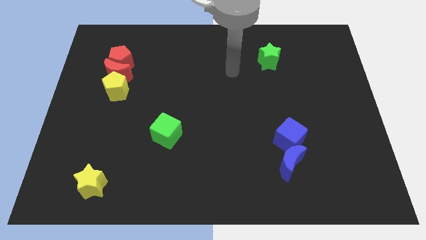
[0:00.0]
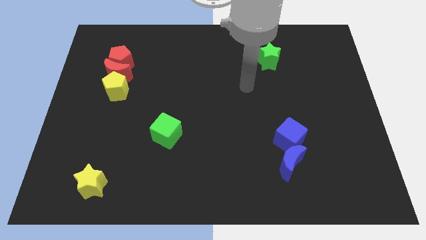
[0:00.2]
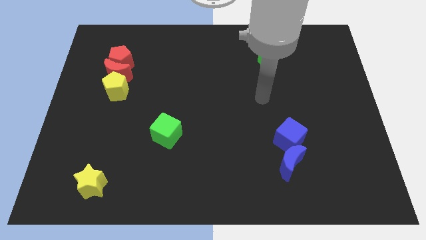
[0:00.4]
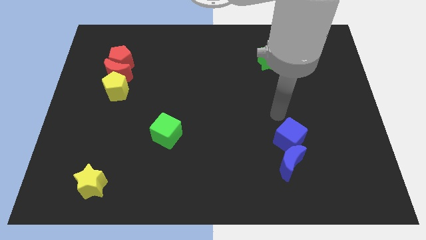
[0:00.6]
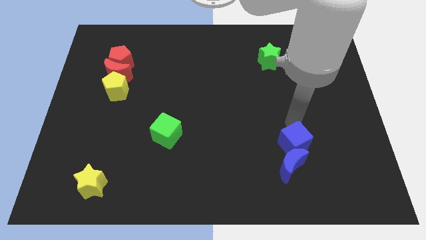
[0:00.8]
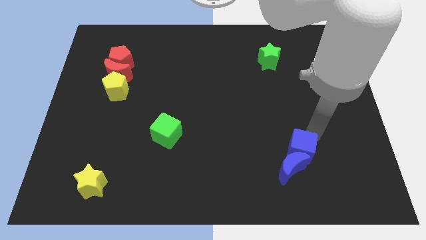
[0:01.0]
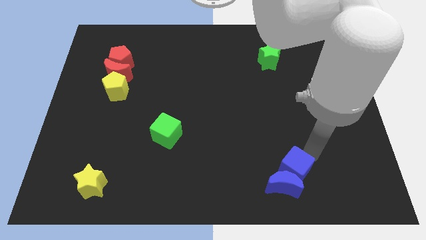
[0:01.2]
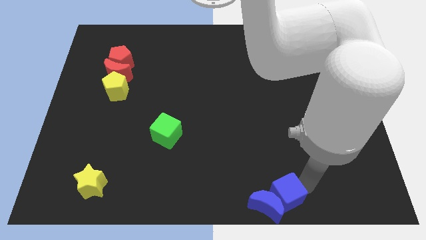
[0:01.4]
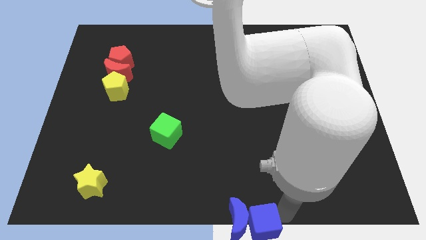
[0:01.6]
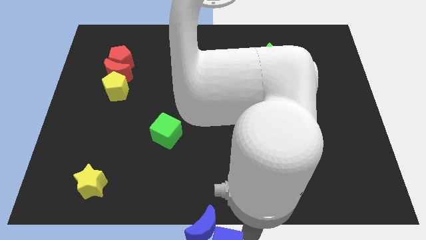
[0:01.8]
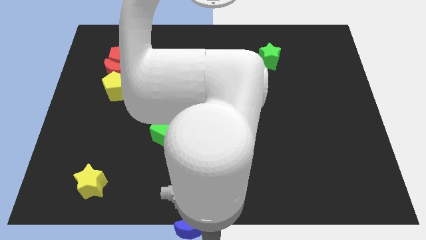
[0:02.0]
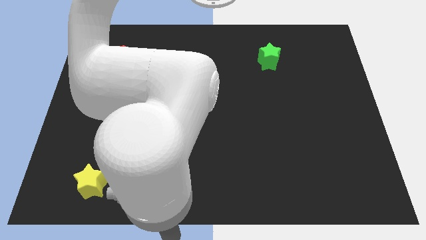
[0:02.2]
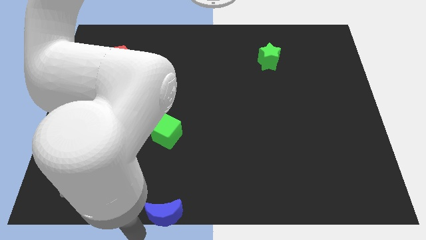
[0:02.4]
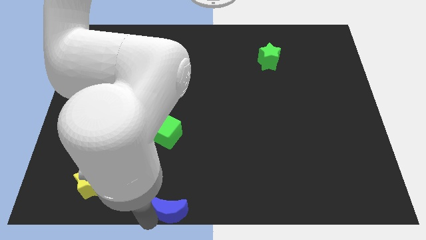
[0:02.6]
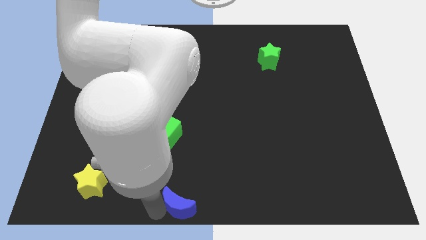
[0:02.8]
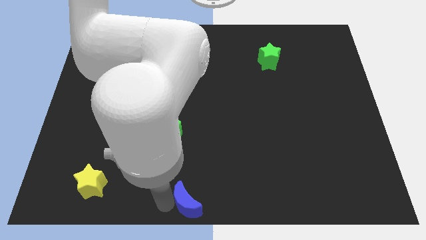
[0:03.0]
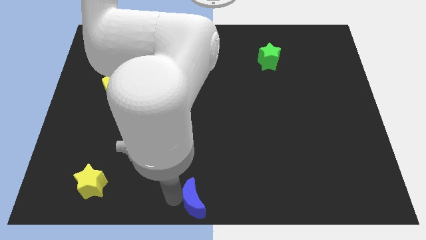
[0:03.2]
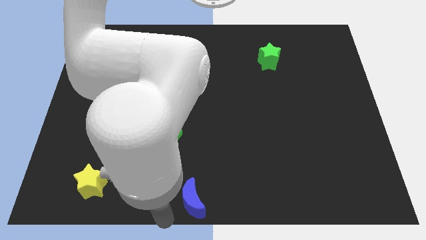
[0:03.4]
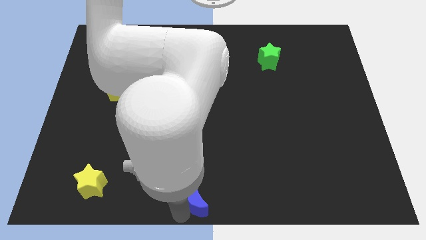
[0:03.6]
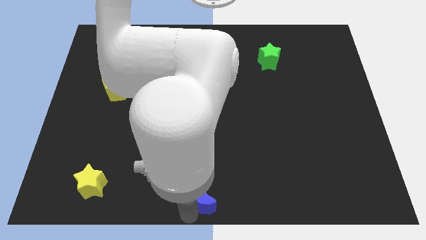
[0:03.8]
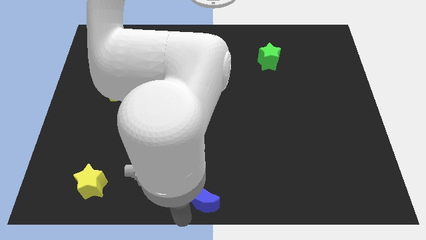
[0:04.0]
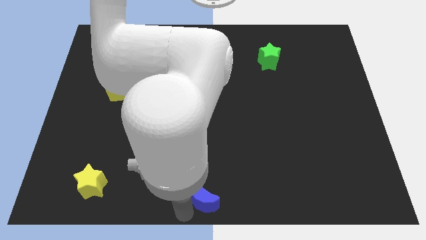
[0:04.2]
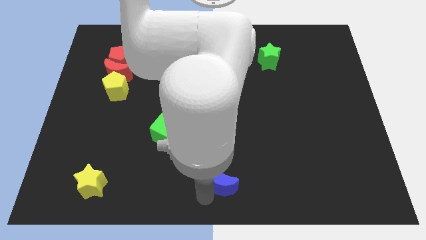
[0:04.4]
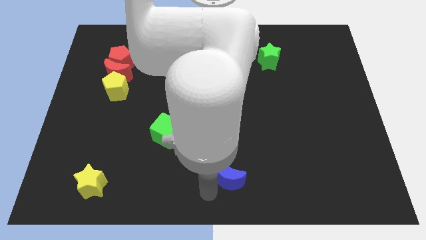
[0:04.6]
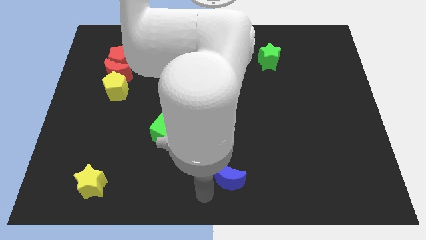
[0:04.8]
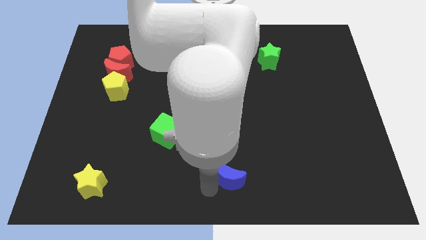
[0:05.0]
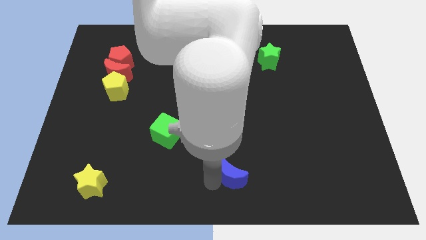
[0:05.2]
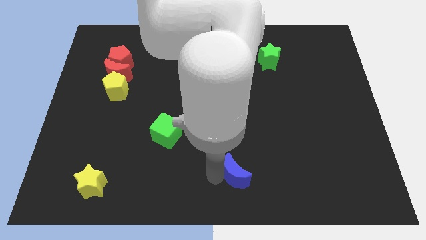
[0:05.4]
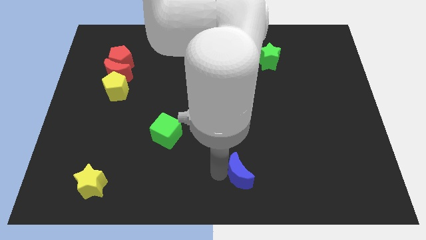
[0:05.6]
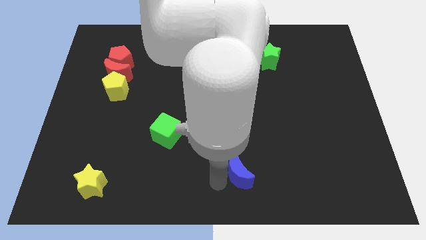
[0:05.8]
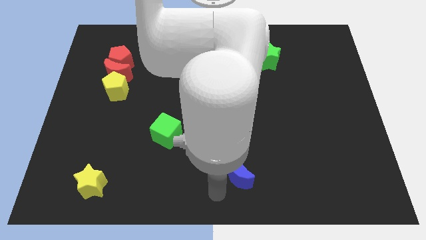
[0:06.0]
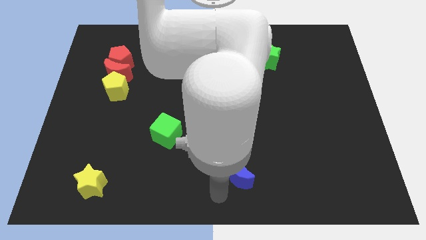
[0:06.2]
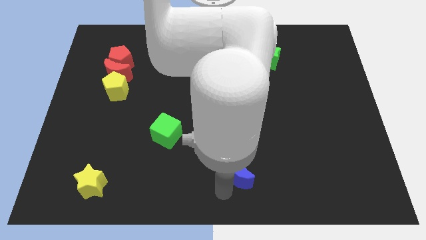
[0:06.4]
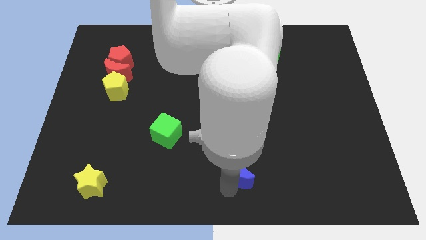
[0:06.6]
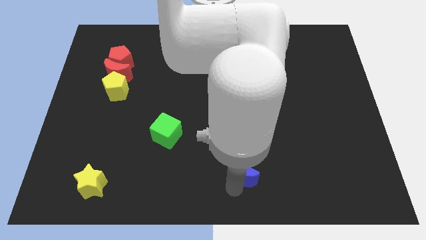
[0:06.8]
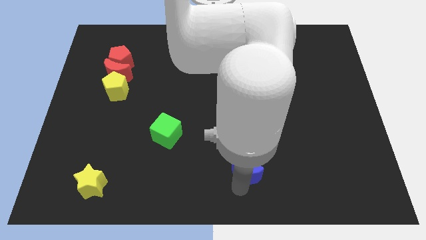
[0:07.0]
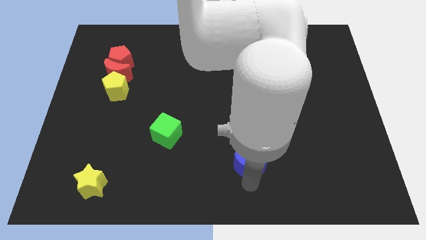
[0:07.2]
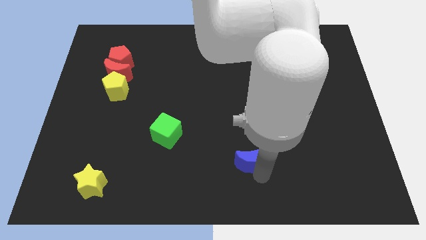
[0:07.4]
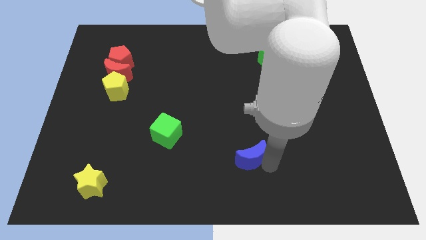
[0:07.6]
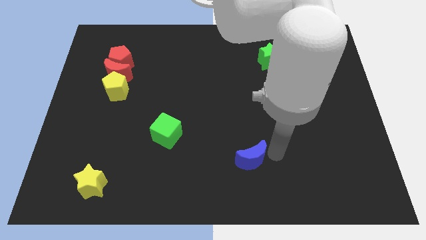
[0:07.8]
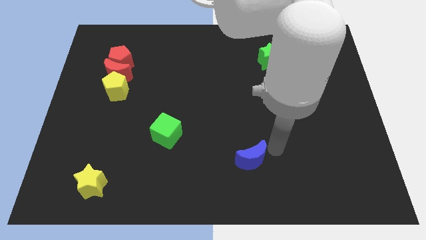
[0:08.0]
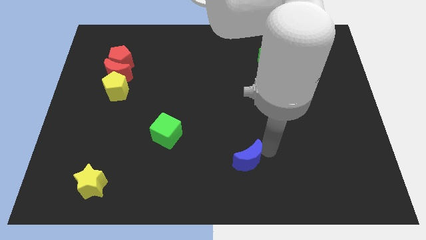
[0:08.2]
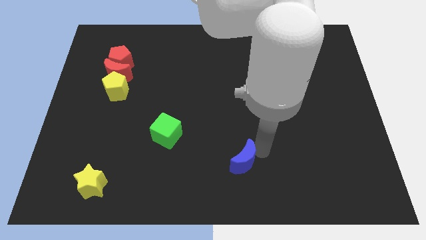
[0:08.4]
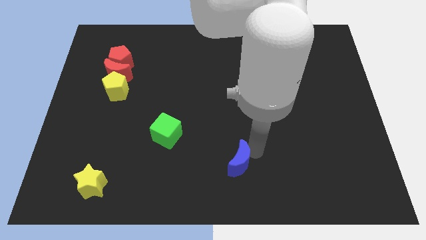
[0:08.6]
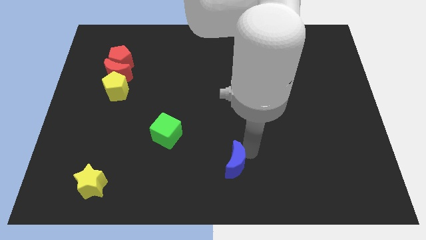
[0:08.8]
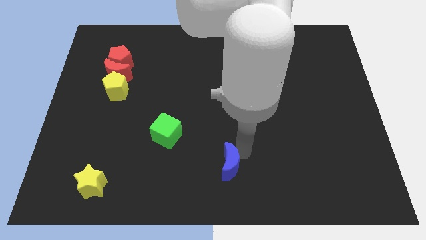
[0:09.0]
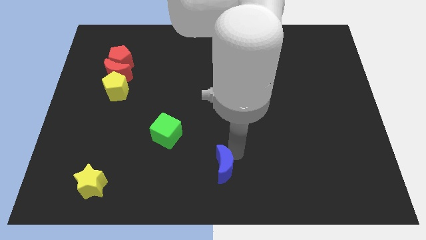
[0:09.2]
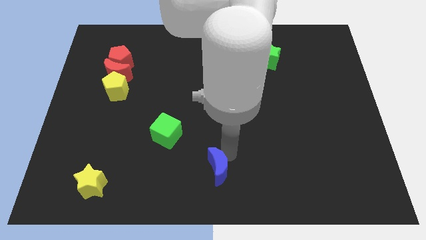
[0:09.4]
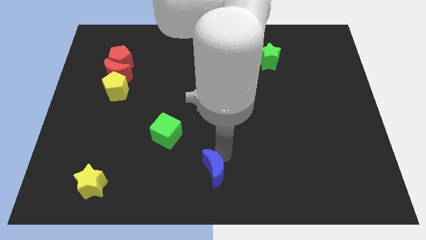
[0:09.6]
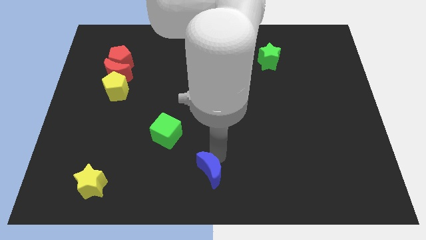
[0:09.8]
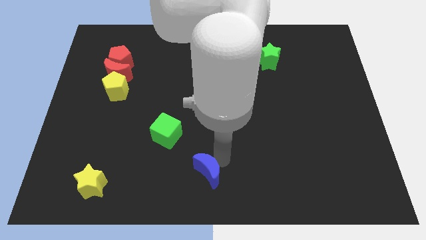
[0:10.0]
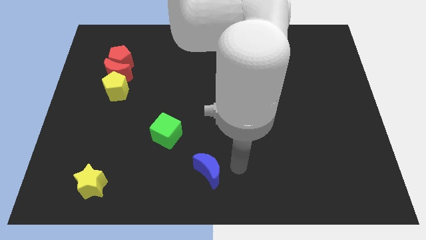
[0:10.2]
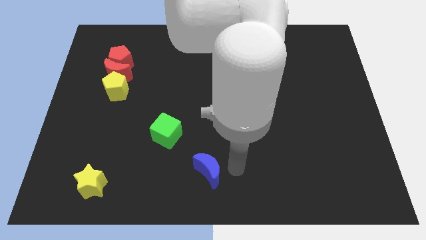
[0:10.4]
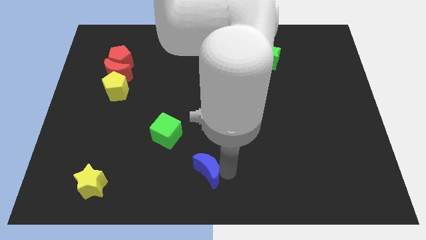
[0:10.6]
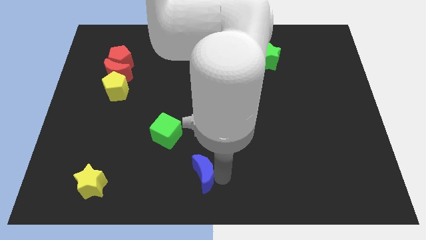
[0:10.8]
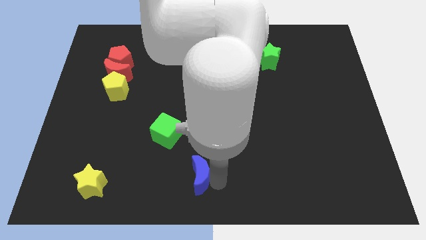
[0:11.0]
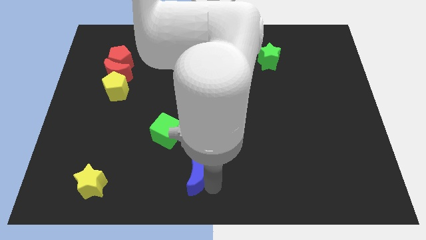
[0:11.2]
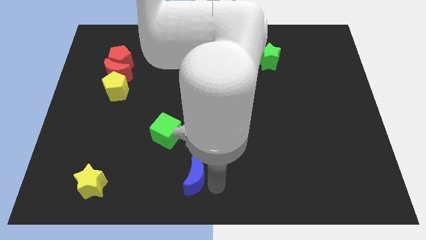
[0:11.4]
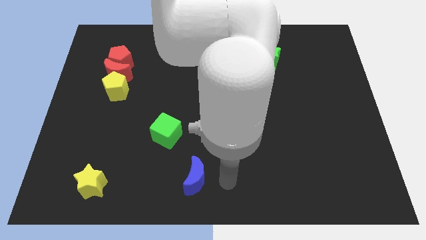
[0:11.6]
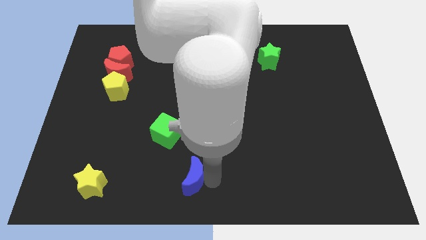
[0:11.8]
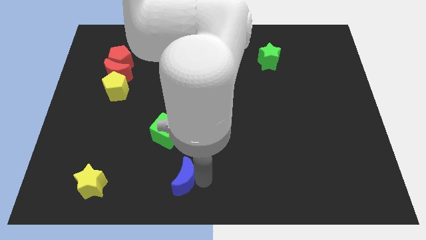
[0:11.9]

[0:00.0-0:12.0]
push the blue moon to the bottom side of the green cube

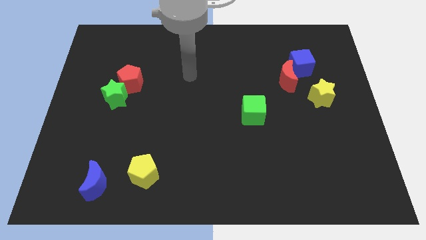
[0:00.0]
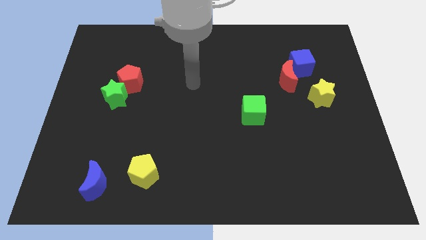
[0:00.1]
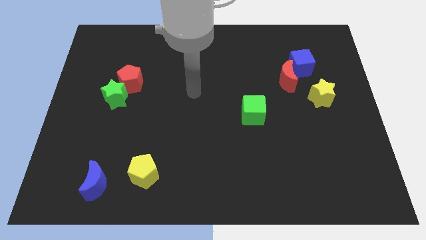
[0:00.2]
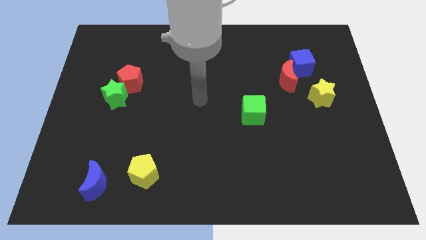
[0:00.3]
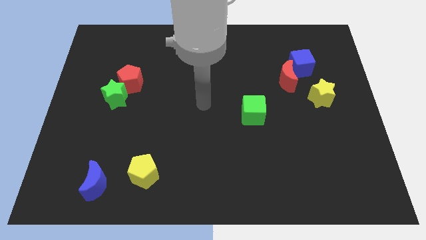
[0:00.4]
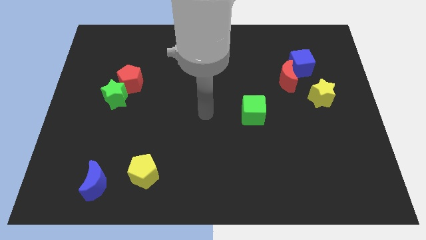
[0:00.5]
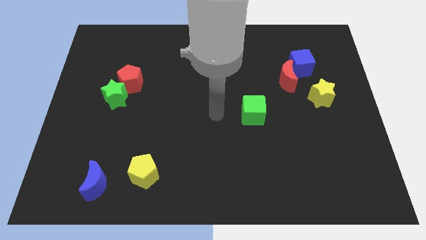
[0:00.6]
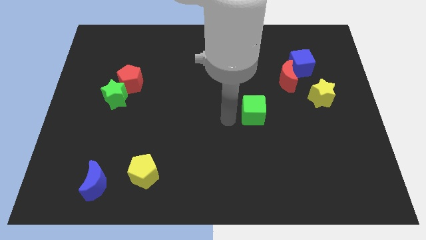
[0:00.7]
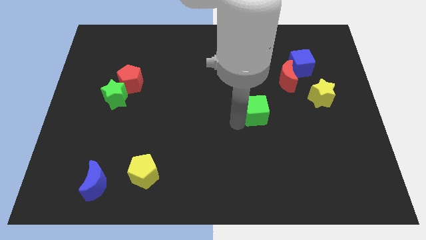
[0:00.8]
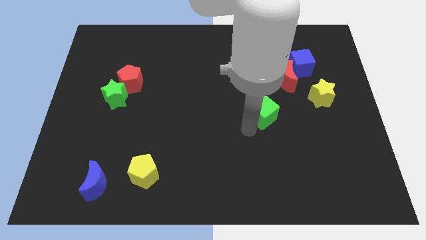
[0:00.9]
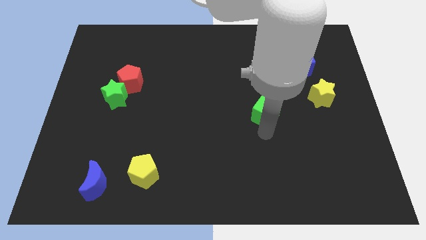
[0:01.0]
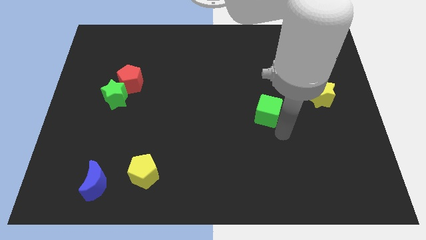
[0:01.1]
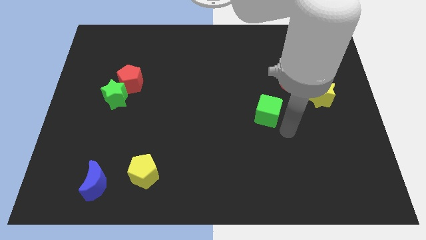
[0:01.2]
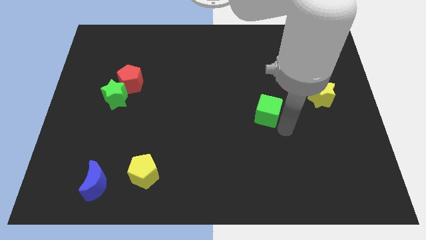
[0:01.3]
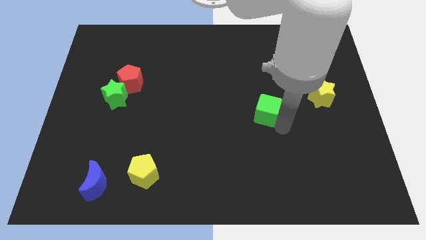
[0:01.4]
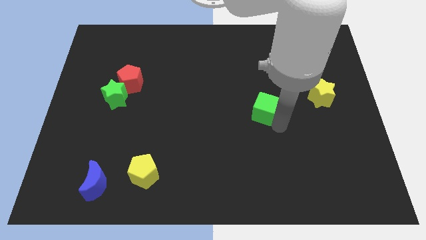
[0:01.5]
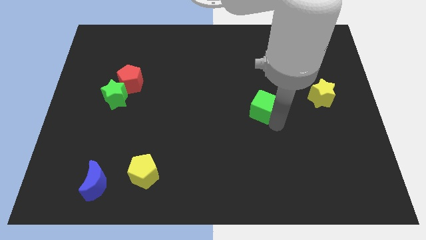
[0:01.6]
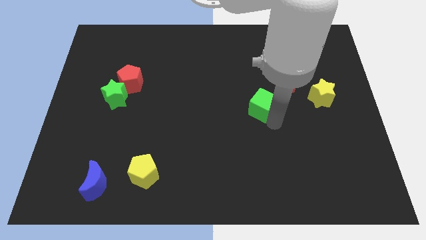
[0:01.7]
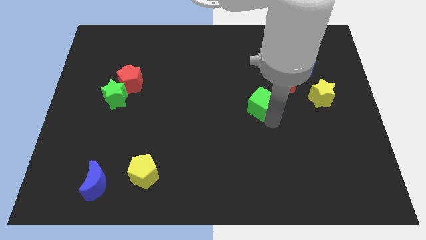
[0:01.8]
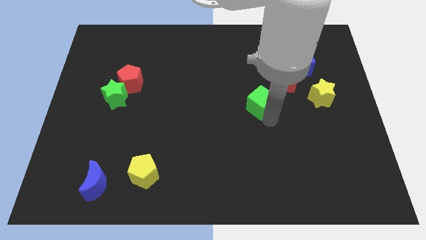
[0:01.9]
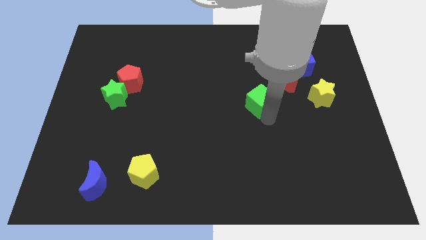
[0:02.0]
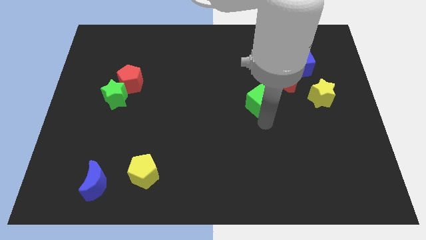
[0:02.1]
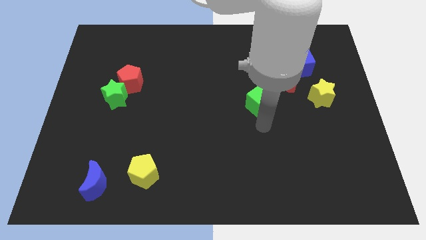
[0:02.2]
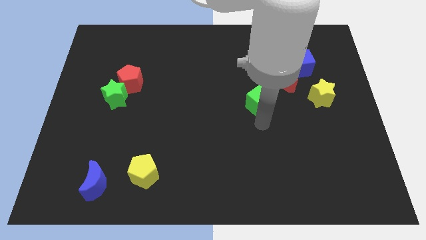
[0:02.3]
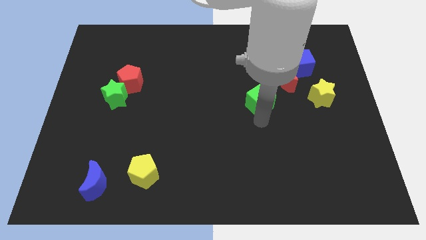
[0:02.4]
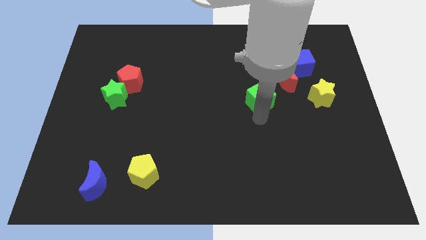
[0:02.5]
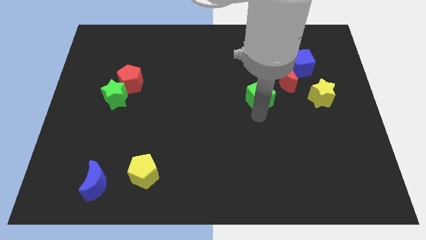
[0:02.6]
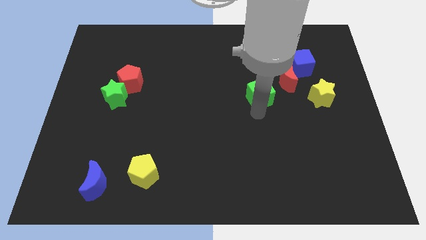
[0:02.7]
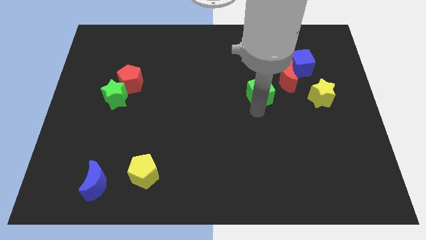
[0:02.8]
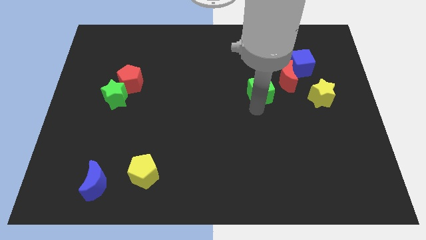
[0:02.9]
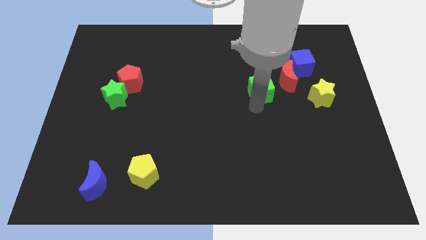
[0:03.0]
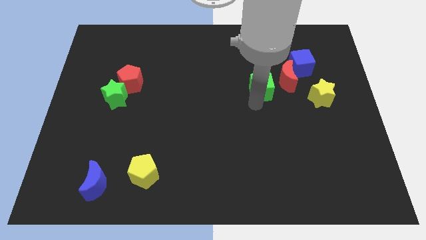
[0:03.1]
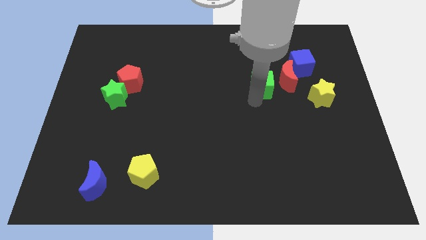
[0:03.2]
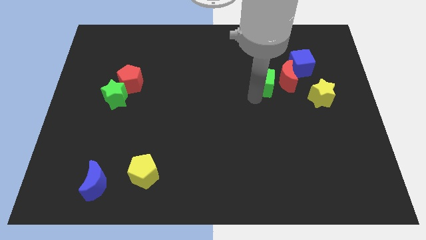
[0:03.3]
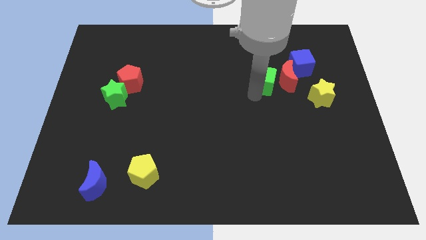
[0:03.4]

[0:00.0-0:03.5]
put the green cube diagonally up and to the left of the red moon
